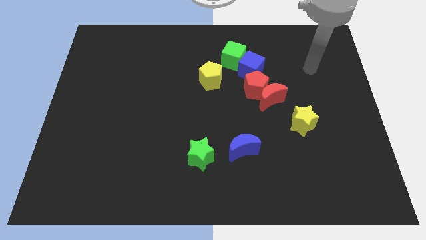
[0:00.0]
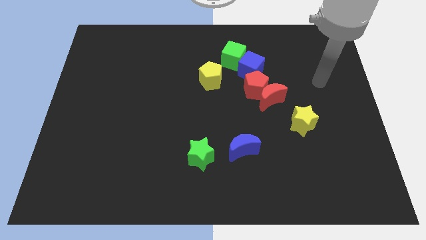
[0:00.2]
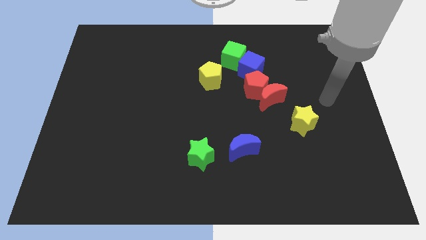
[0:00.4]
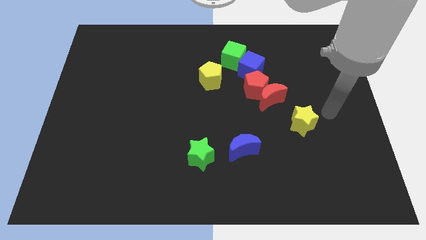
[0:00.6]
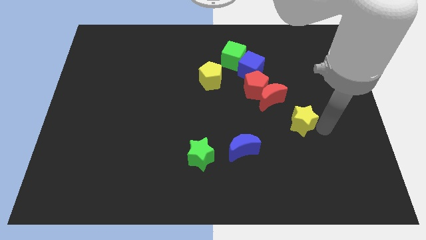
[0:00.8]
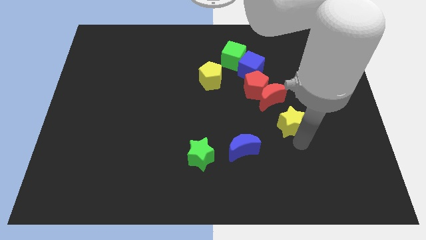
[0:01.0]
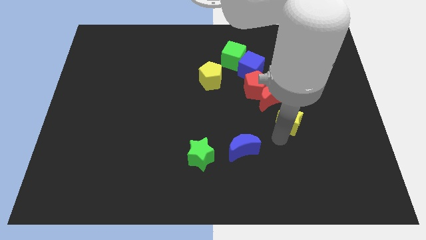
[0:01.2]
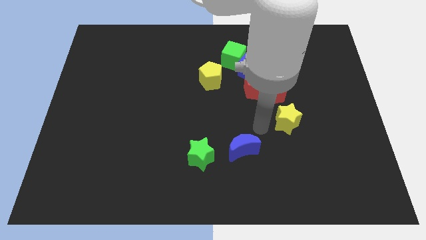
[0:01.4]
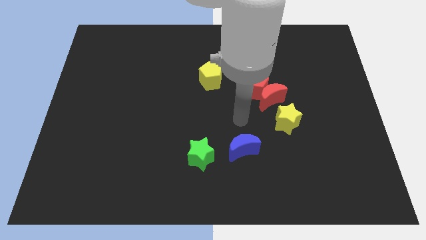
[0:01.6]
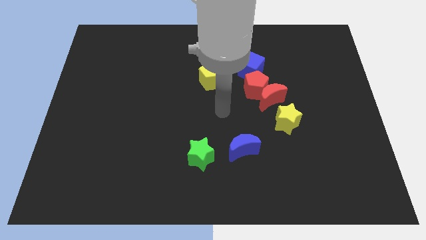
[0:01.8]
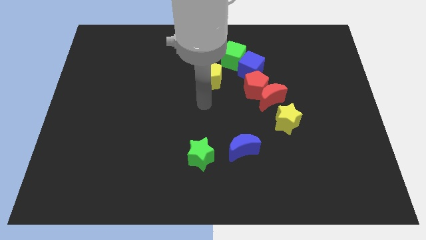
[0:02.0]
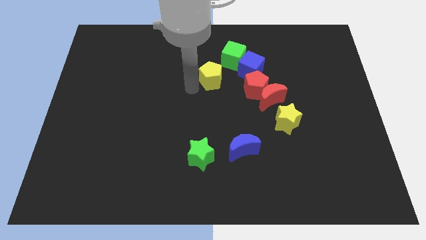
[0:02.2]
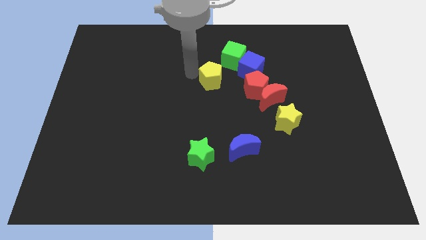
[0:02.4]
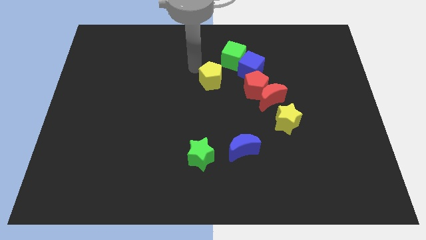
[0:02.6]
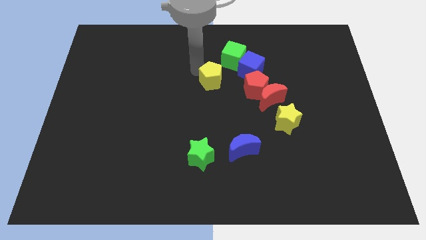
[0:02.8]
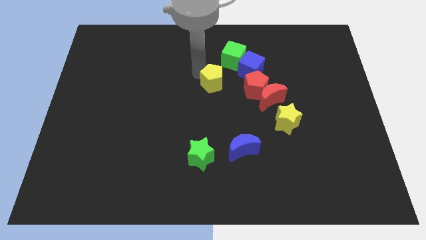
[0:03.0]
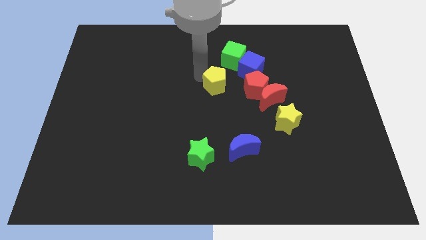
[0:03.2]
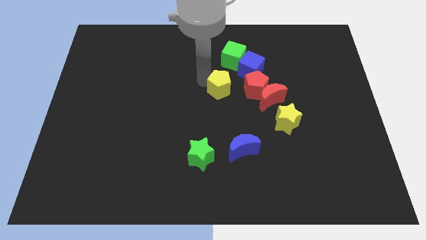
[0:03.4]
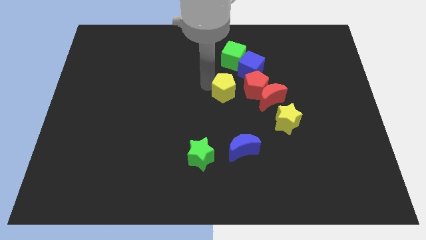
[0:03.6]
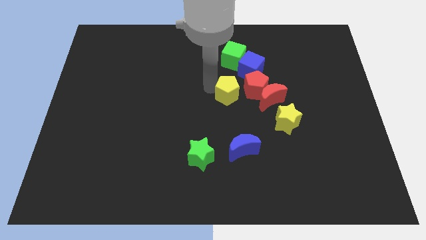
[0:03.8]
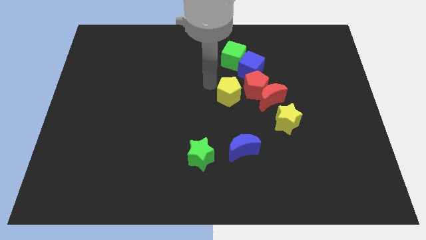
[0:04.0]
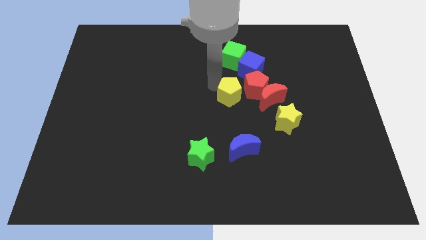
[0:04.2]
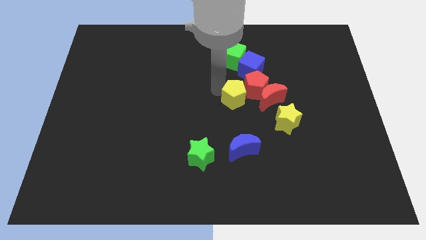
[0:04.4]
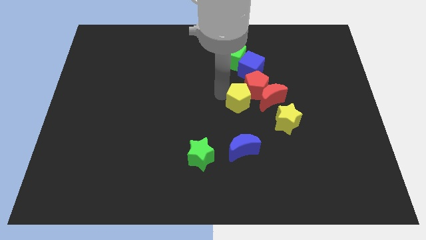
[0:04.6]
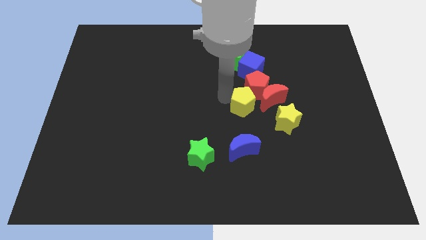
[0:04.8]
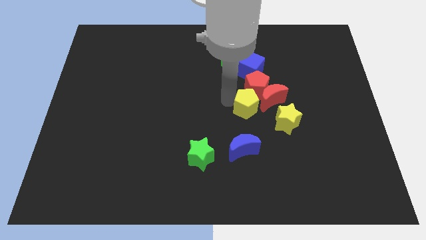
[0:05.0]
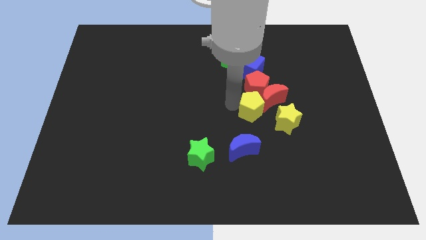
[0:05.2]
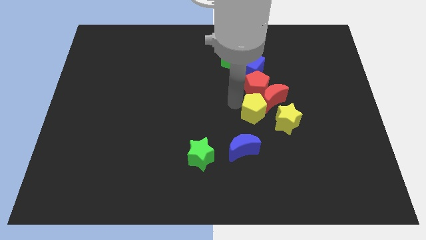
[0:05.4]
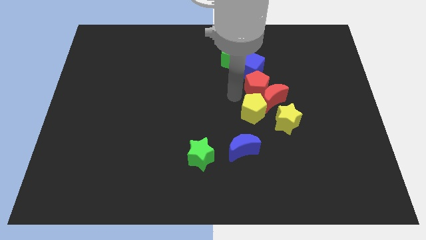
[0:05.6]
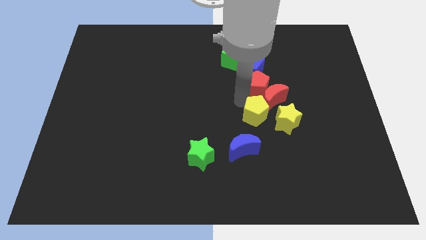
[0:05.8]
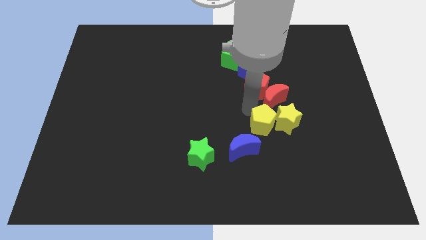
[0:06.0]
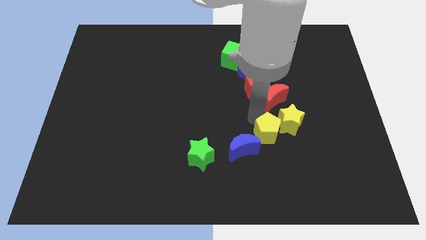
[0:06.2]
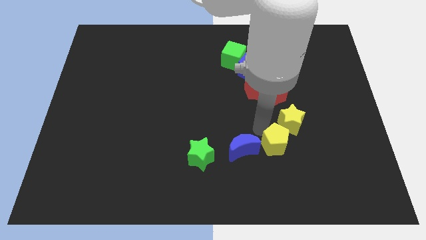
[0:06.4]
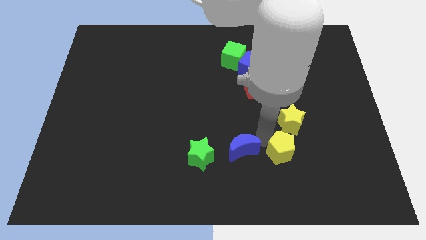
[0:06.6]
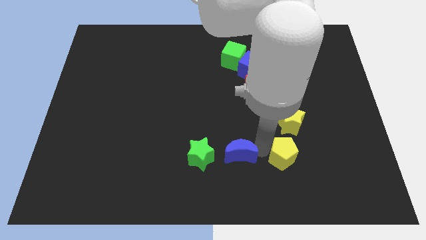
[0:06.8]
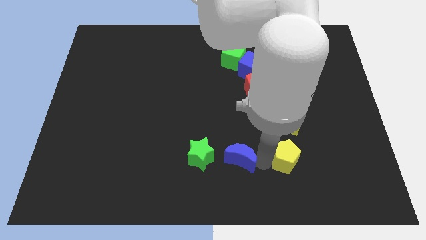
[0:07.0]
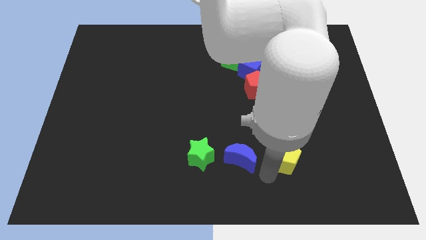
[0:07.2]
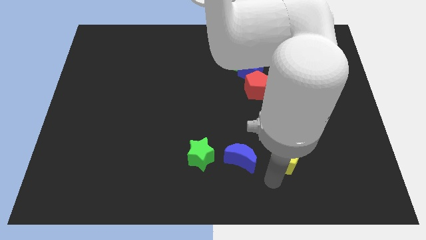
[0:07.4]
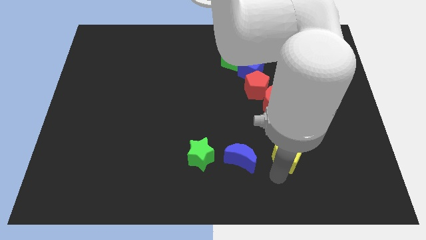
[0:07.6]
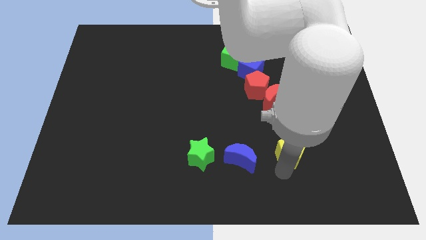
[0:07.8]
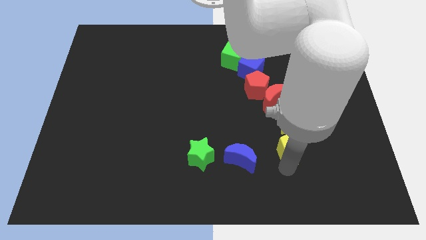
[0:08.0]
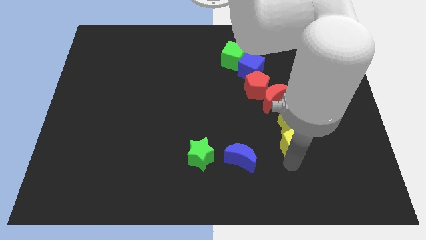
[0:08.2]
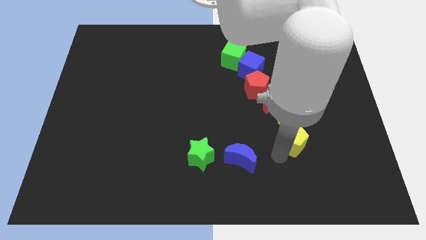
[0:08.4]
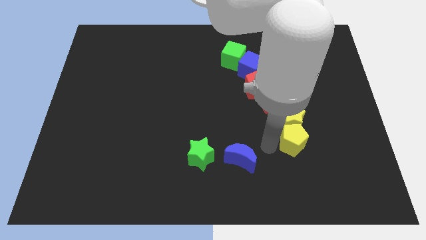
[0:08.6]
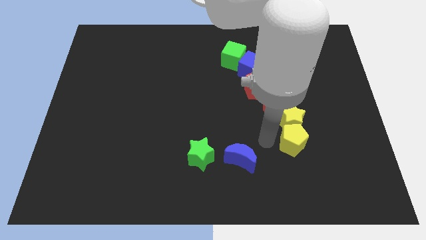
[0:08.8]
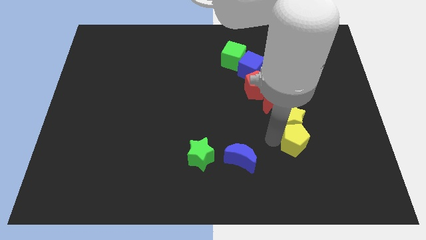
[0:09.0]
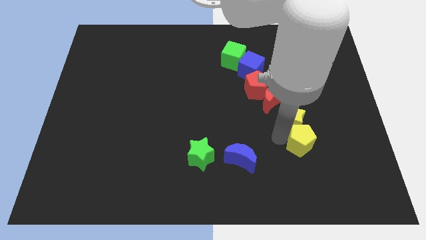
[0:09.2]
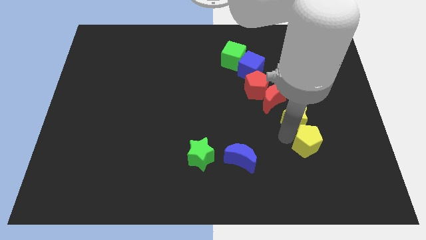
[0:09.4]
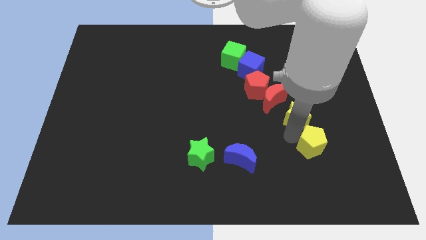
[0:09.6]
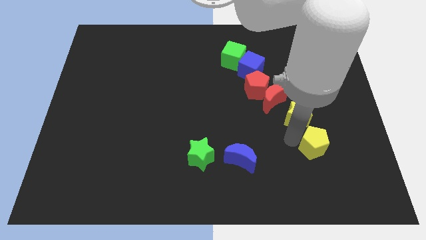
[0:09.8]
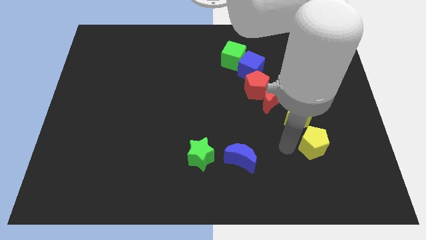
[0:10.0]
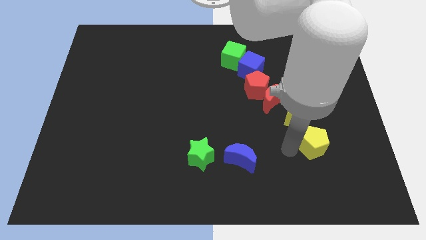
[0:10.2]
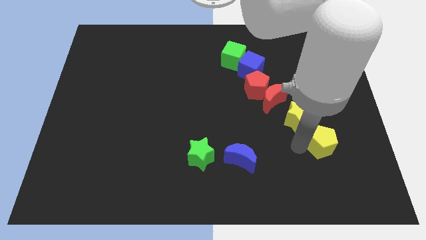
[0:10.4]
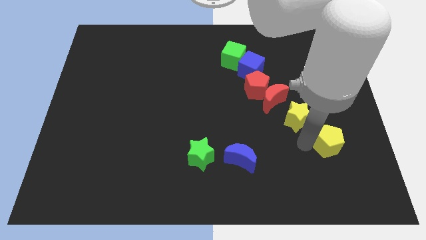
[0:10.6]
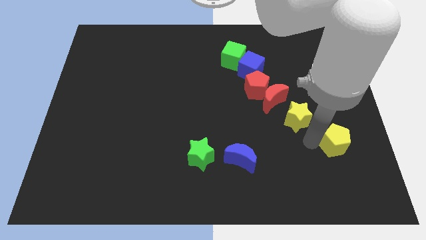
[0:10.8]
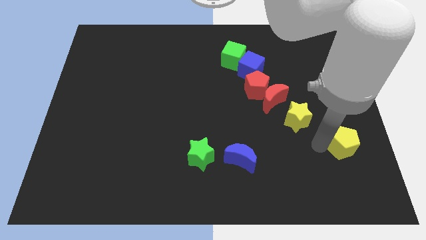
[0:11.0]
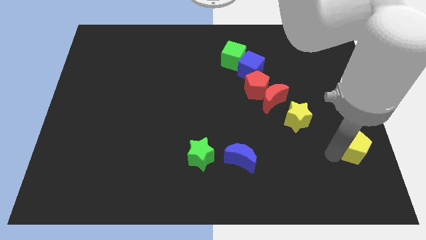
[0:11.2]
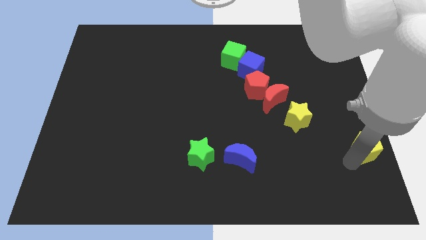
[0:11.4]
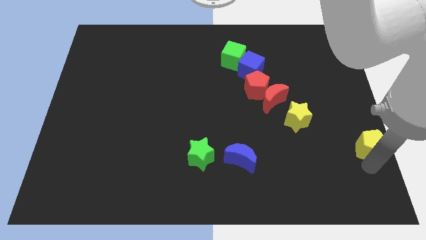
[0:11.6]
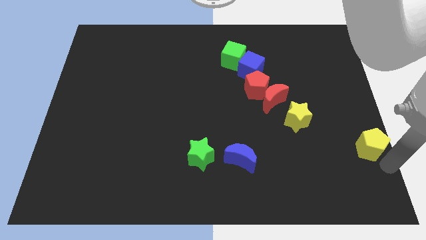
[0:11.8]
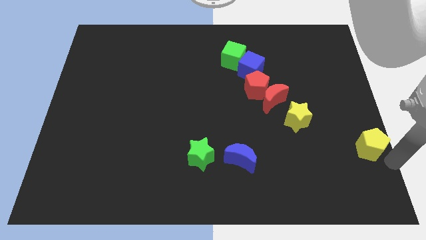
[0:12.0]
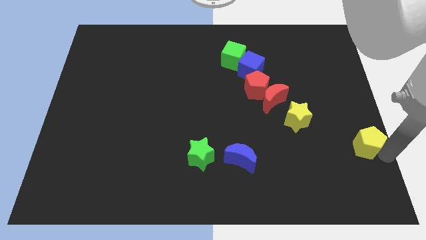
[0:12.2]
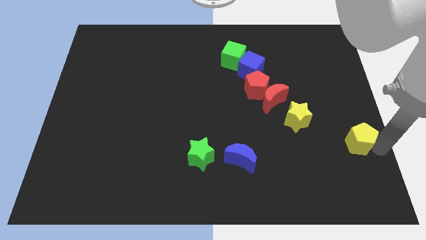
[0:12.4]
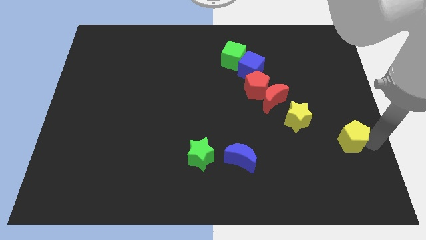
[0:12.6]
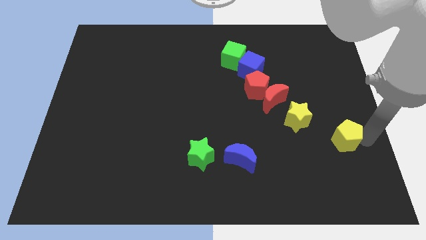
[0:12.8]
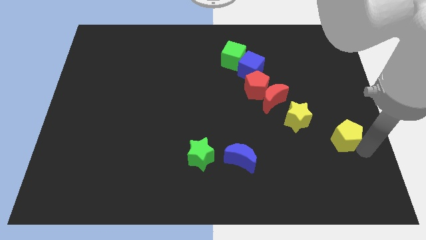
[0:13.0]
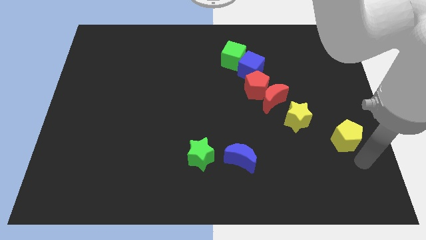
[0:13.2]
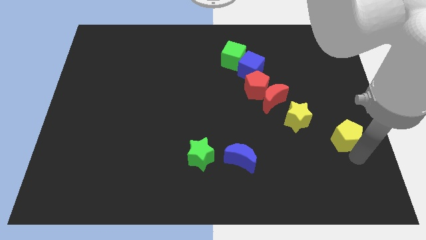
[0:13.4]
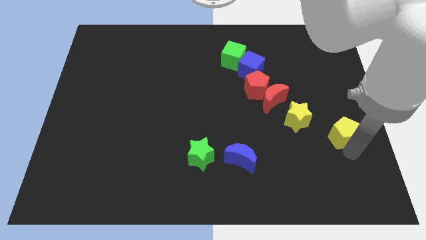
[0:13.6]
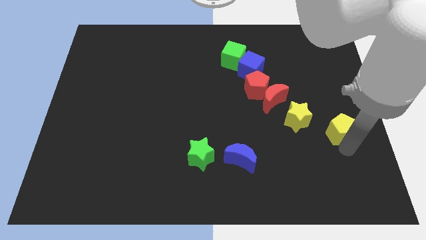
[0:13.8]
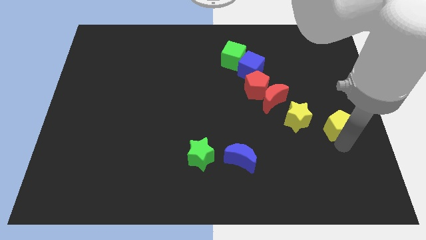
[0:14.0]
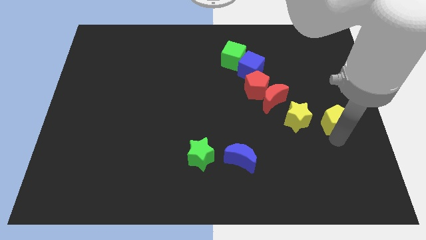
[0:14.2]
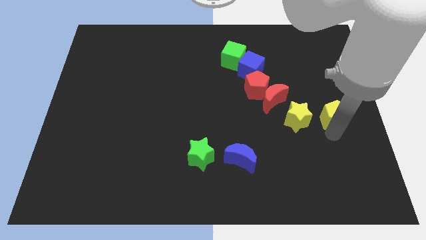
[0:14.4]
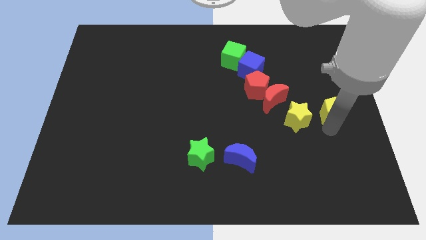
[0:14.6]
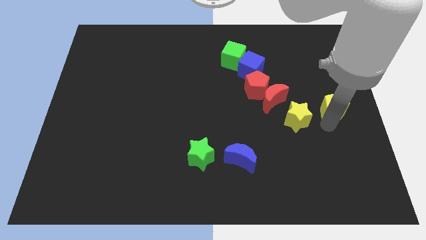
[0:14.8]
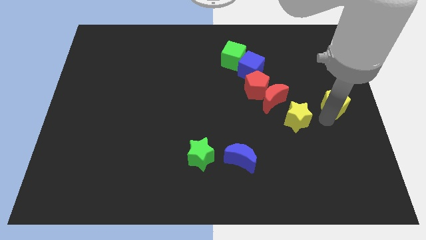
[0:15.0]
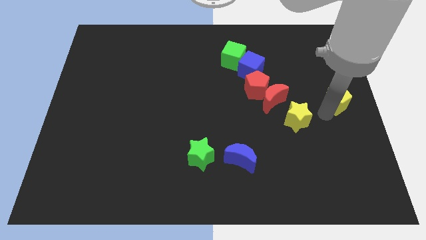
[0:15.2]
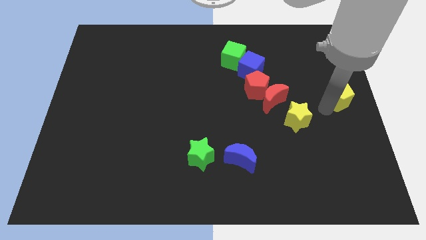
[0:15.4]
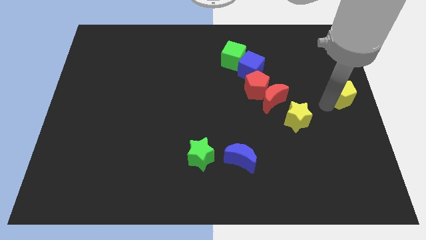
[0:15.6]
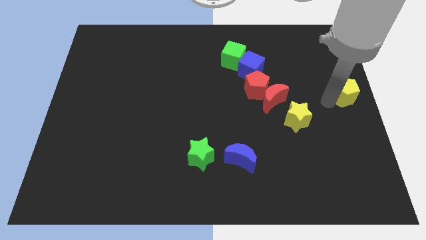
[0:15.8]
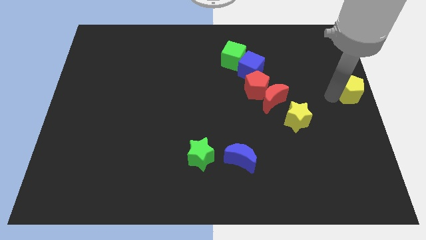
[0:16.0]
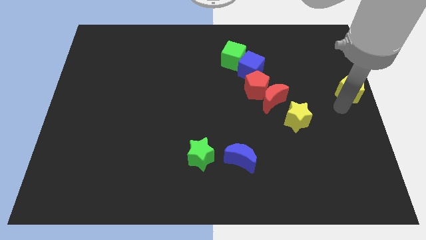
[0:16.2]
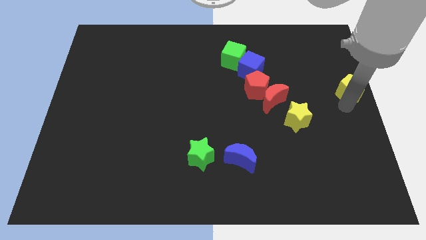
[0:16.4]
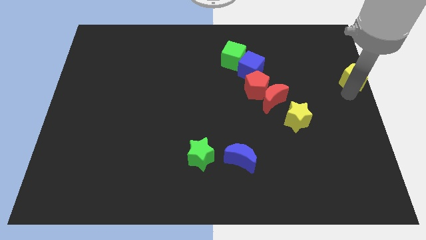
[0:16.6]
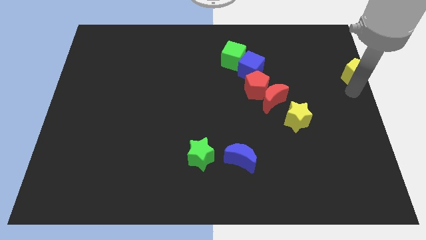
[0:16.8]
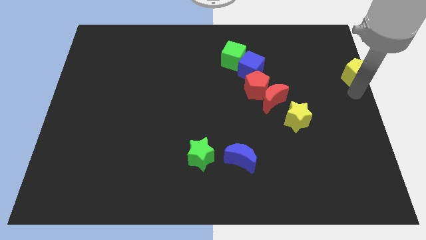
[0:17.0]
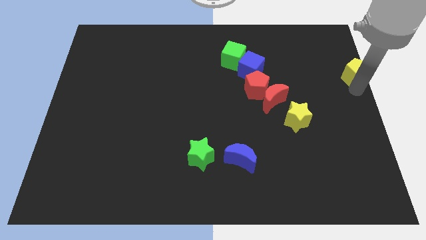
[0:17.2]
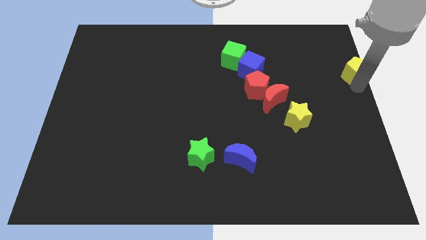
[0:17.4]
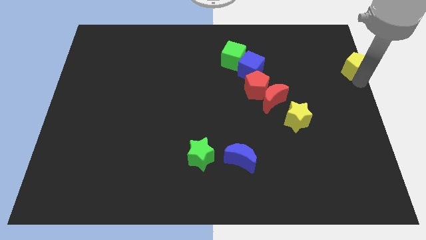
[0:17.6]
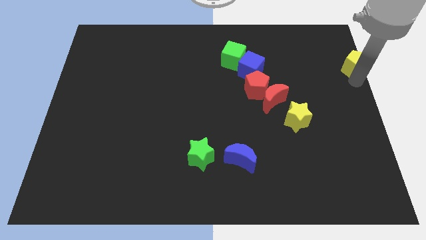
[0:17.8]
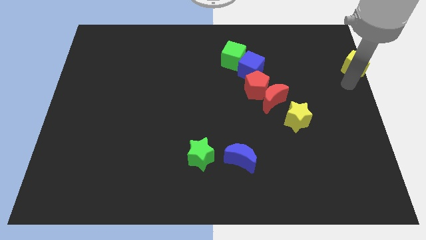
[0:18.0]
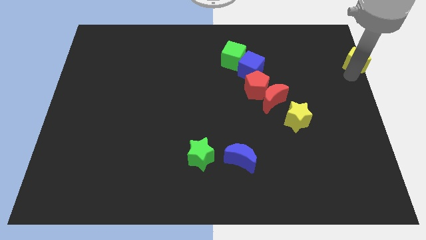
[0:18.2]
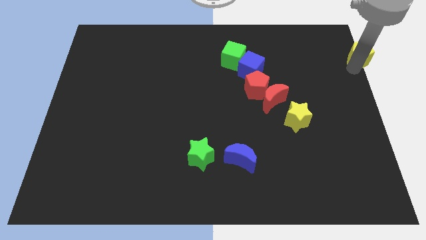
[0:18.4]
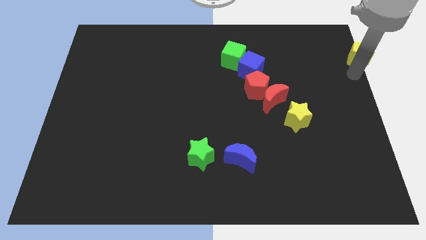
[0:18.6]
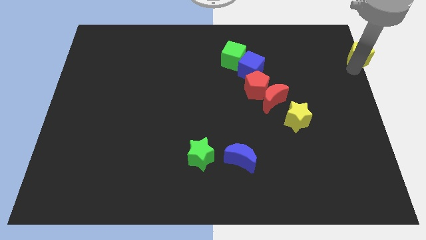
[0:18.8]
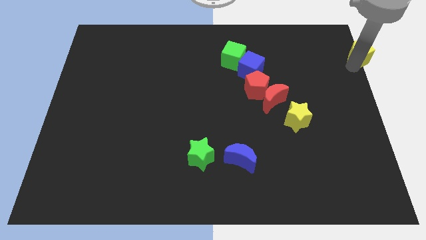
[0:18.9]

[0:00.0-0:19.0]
put the yellow pentagon to the upper right corner
